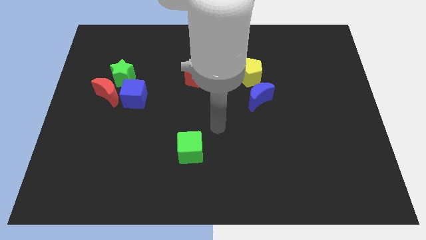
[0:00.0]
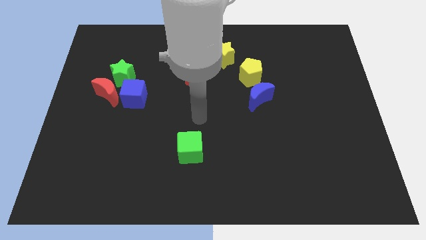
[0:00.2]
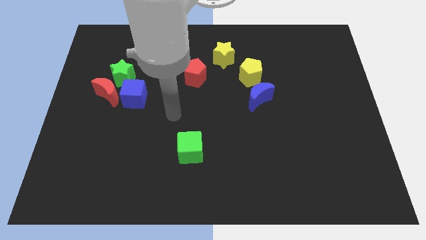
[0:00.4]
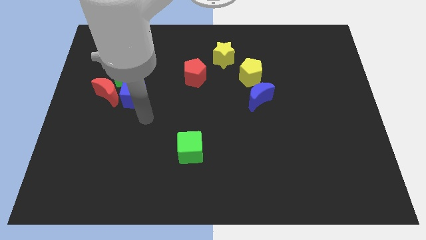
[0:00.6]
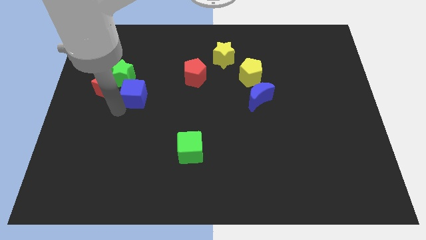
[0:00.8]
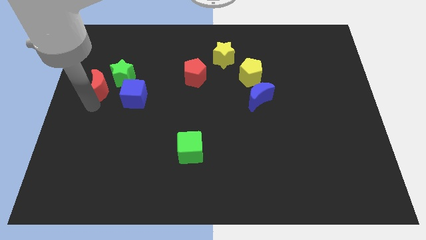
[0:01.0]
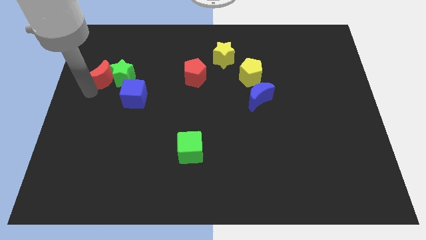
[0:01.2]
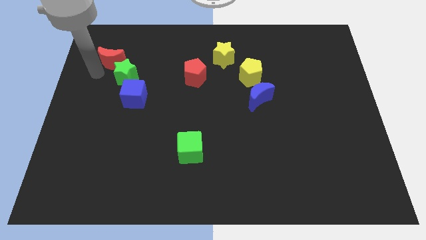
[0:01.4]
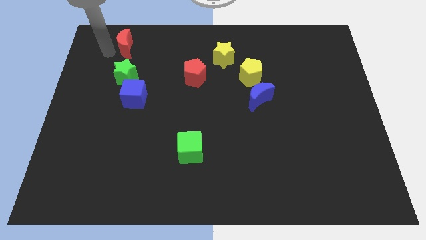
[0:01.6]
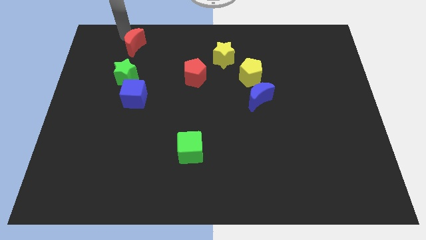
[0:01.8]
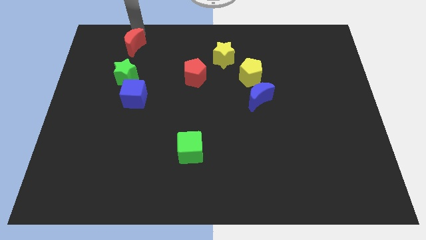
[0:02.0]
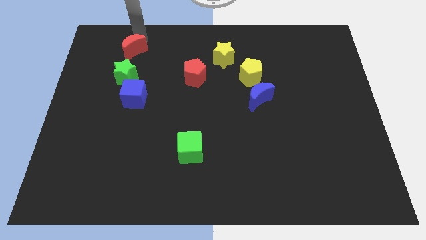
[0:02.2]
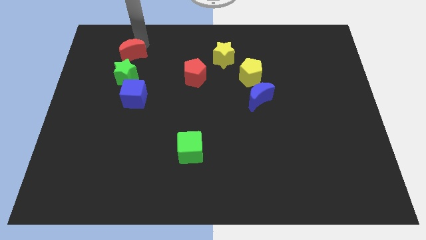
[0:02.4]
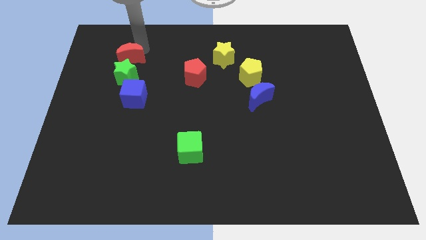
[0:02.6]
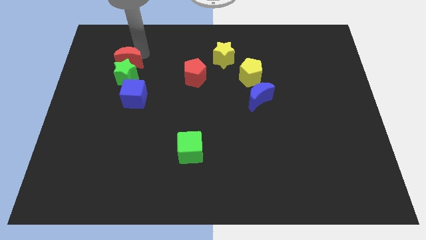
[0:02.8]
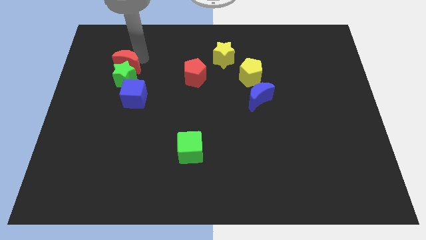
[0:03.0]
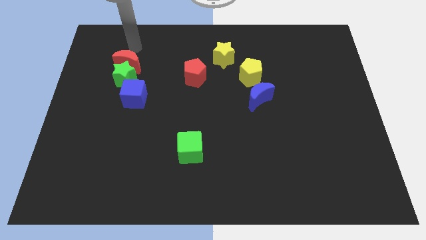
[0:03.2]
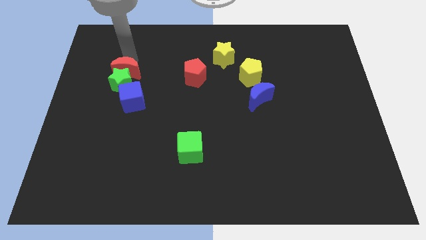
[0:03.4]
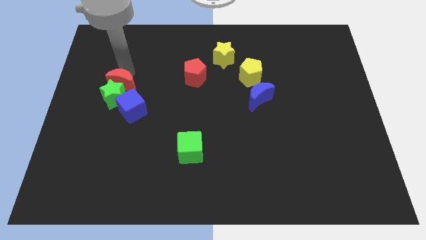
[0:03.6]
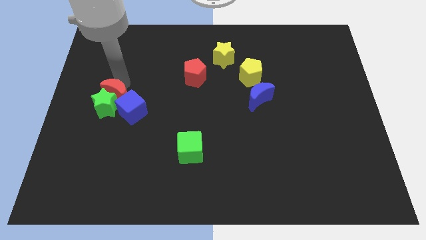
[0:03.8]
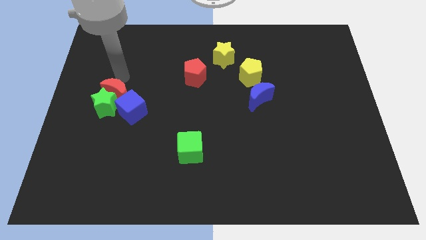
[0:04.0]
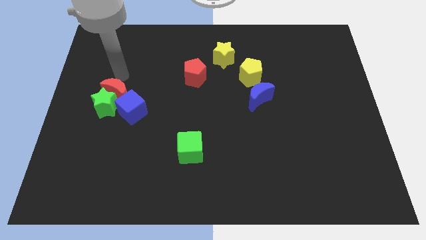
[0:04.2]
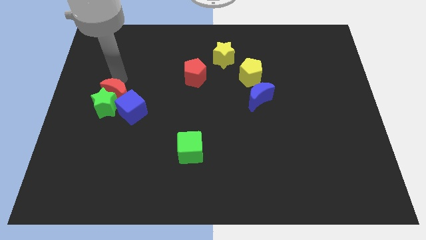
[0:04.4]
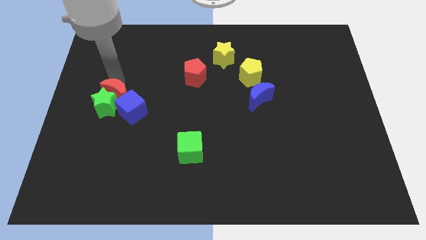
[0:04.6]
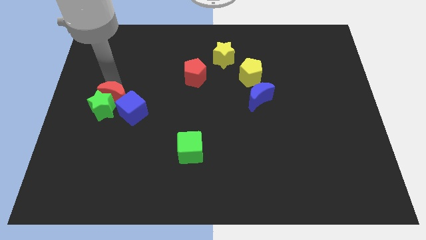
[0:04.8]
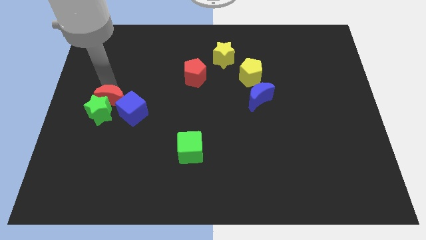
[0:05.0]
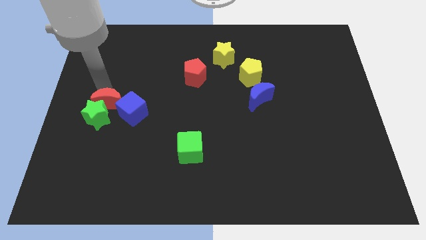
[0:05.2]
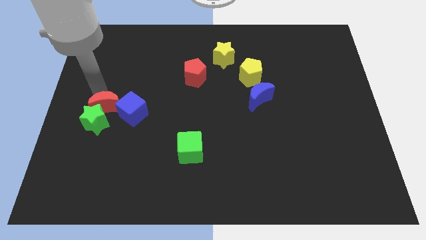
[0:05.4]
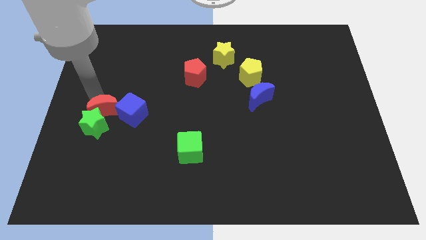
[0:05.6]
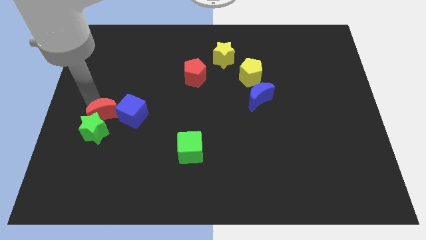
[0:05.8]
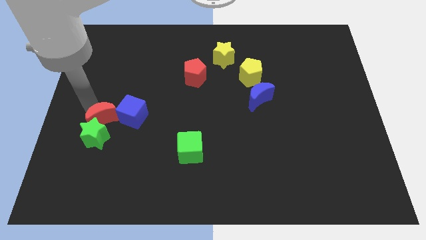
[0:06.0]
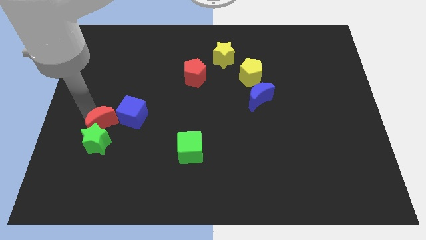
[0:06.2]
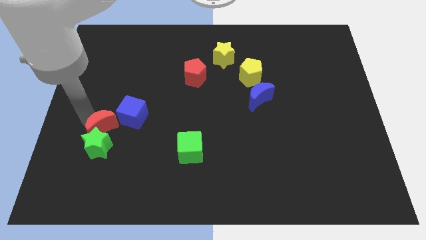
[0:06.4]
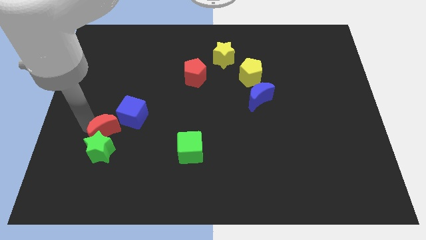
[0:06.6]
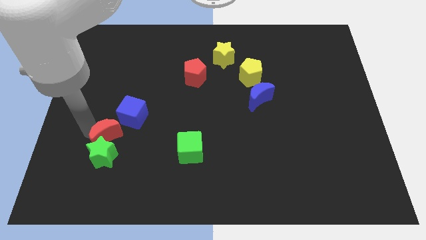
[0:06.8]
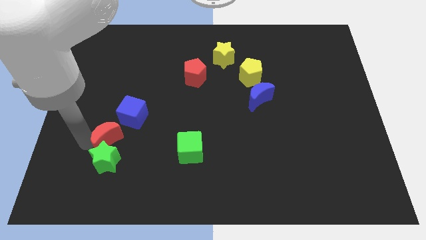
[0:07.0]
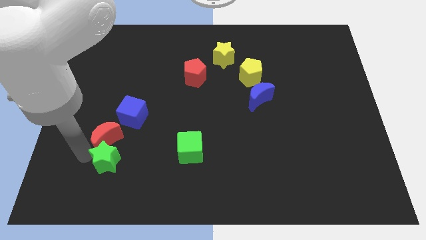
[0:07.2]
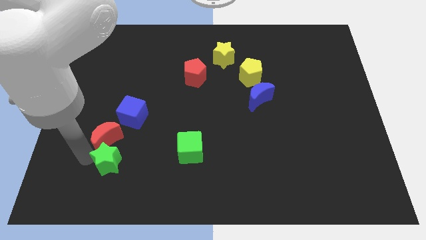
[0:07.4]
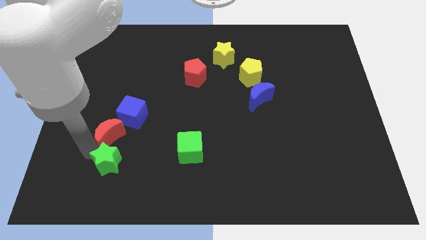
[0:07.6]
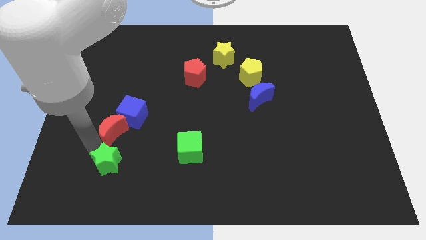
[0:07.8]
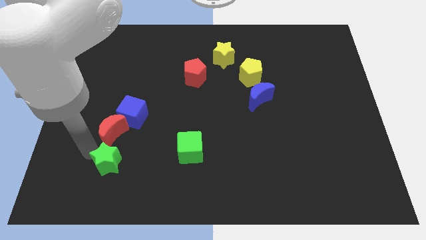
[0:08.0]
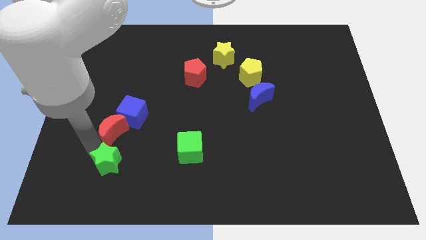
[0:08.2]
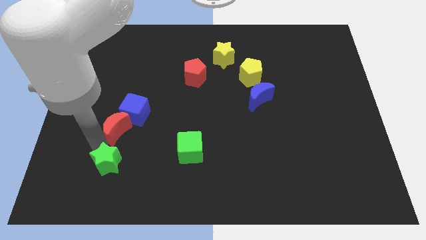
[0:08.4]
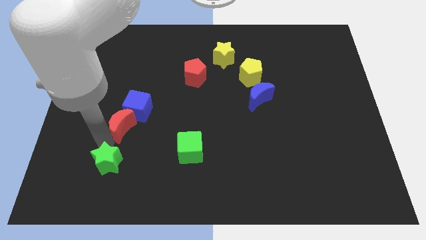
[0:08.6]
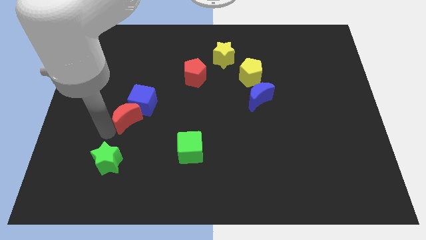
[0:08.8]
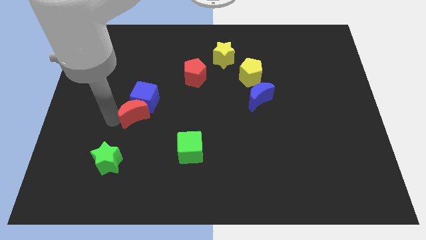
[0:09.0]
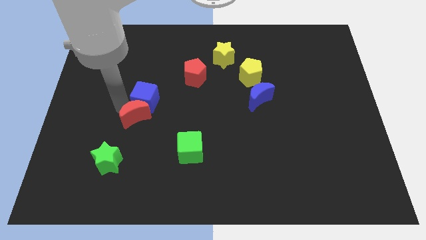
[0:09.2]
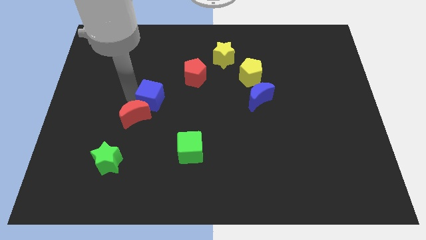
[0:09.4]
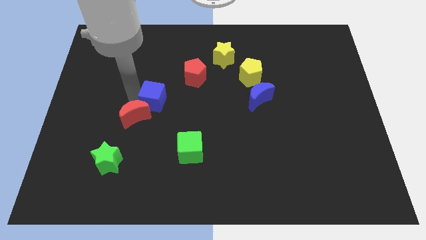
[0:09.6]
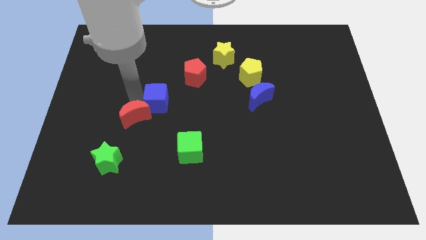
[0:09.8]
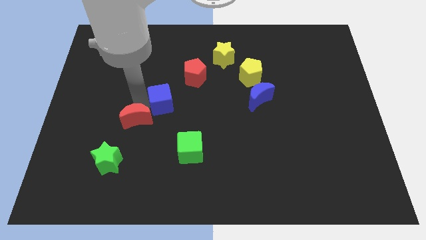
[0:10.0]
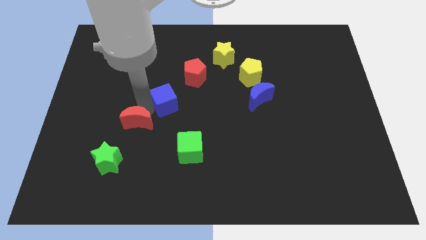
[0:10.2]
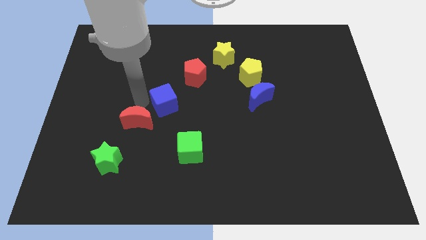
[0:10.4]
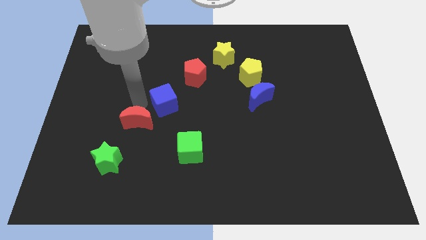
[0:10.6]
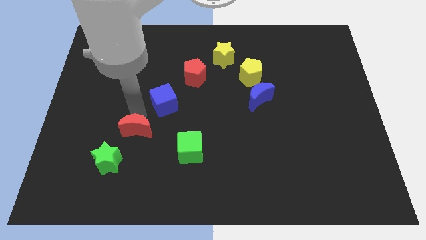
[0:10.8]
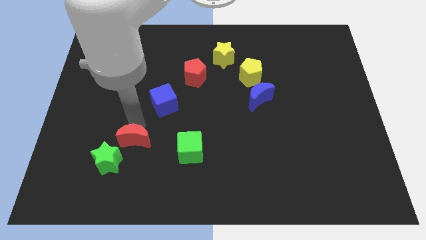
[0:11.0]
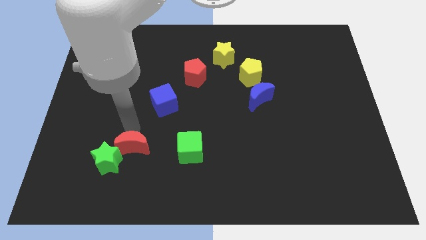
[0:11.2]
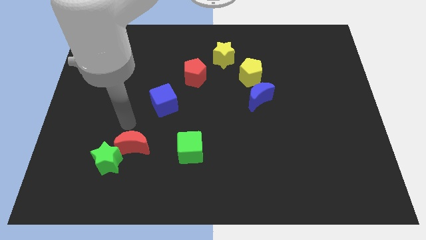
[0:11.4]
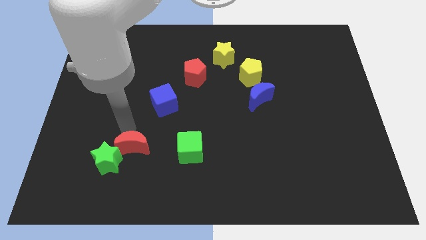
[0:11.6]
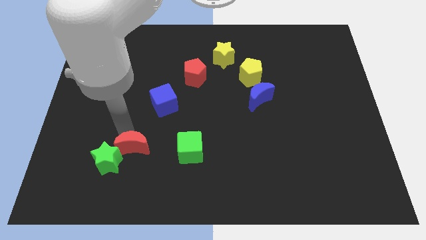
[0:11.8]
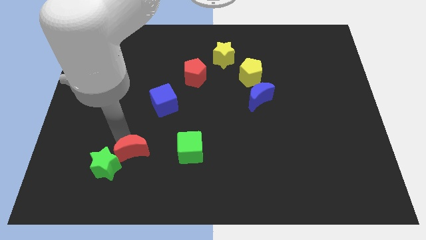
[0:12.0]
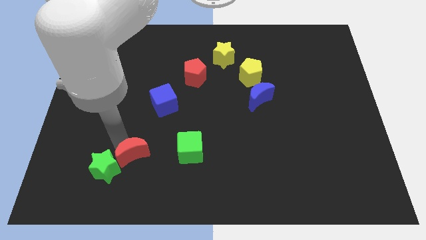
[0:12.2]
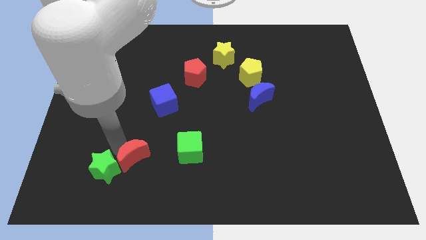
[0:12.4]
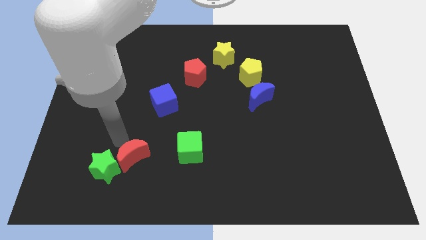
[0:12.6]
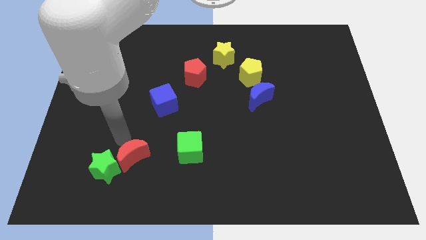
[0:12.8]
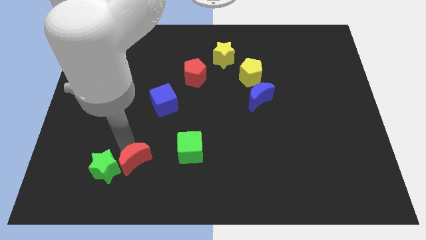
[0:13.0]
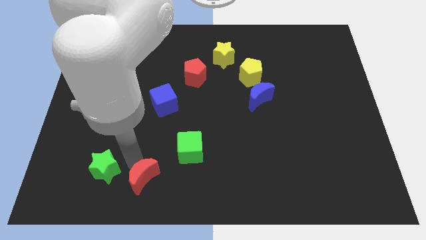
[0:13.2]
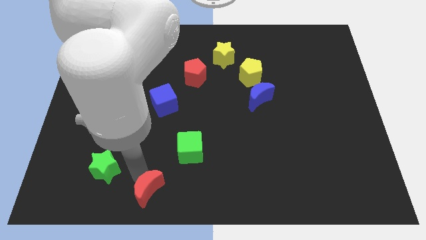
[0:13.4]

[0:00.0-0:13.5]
slide the red moon to the bottom

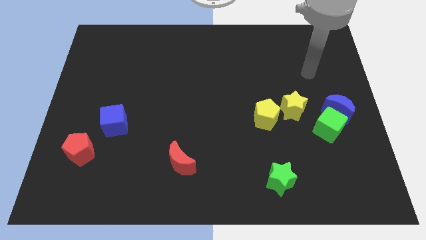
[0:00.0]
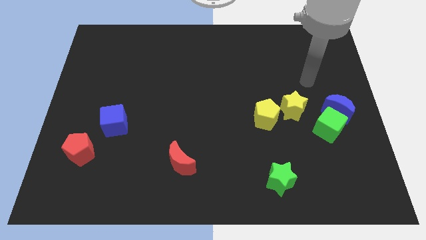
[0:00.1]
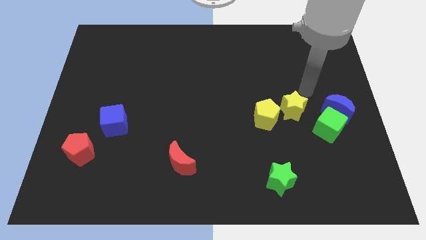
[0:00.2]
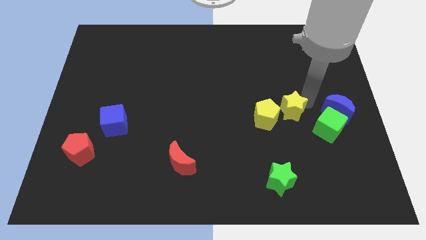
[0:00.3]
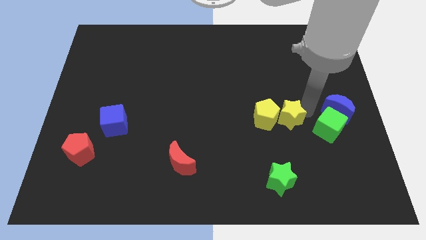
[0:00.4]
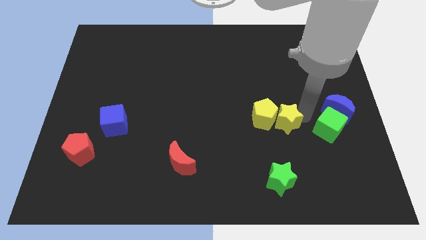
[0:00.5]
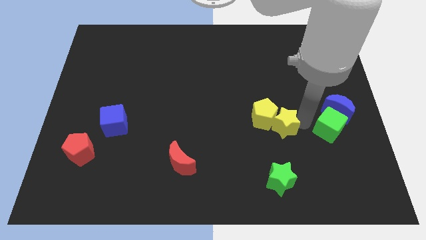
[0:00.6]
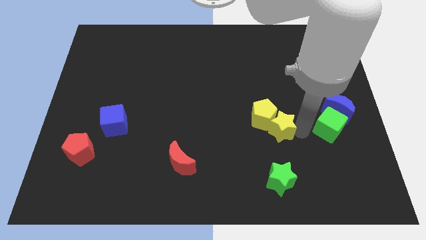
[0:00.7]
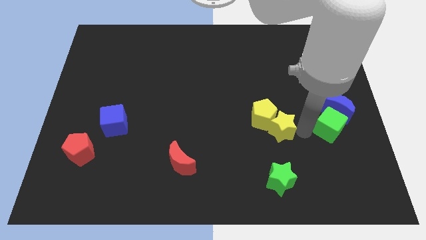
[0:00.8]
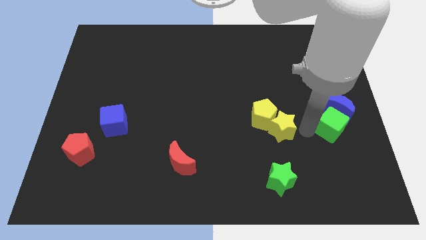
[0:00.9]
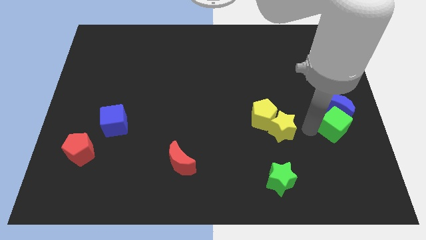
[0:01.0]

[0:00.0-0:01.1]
move the green cube to the center right
